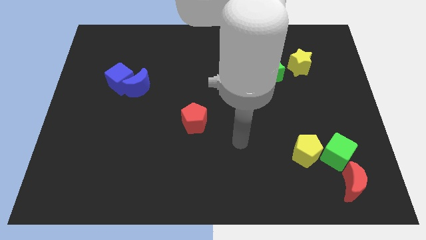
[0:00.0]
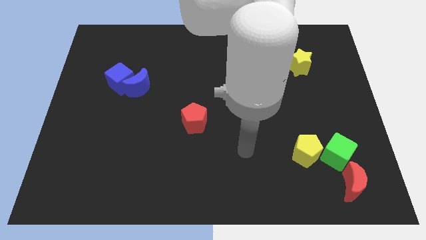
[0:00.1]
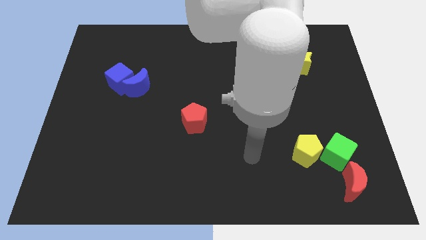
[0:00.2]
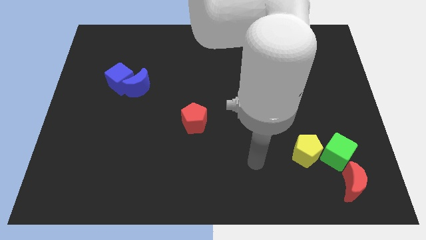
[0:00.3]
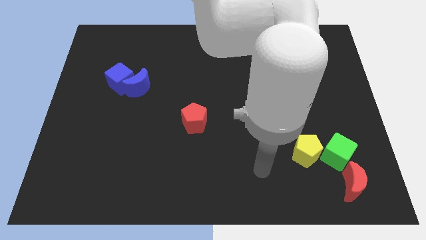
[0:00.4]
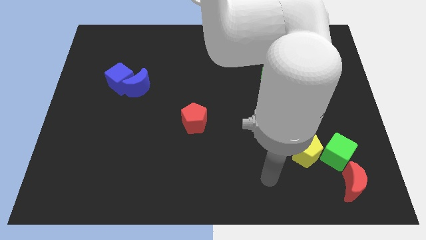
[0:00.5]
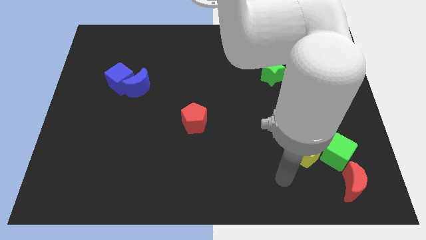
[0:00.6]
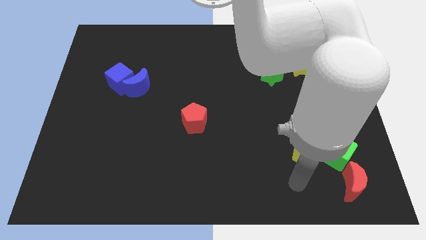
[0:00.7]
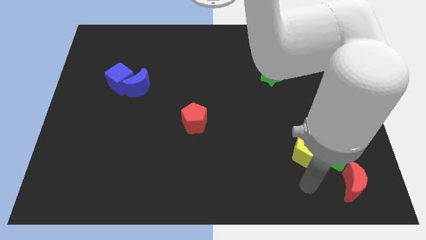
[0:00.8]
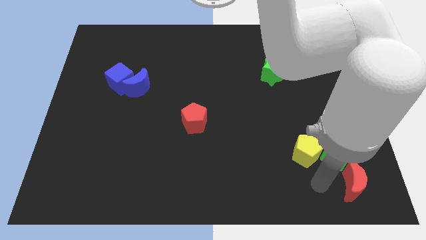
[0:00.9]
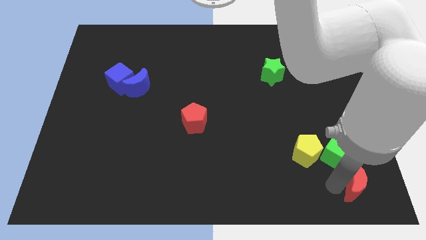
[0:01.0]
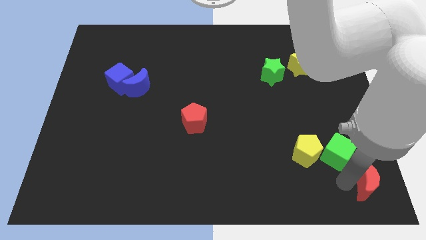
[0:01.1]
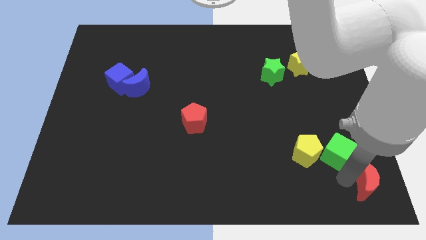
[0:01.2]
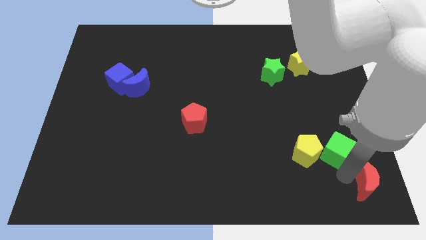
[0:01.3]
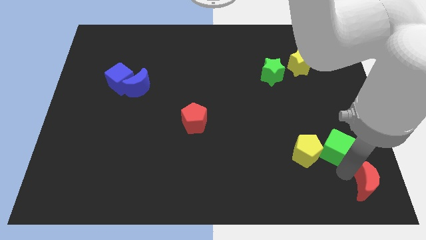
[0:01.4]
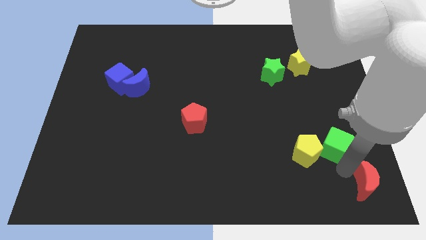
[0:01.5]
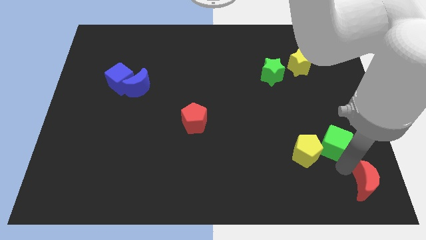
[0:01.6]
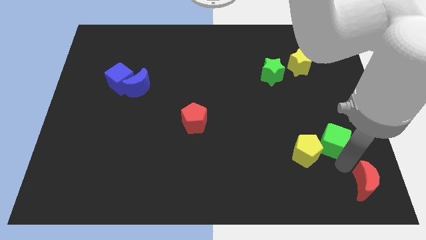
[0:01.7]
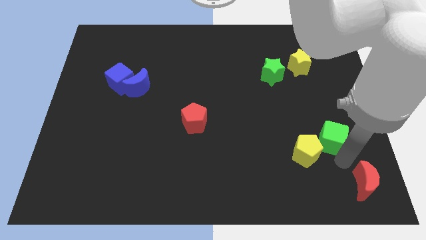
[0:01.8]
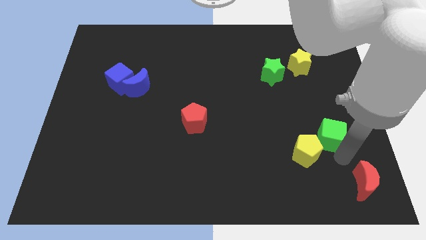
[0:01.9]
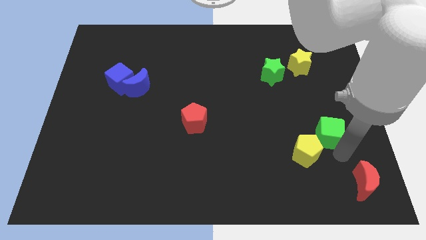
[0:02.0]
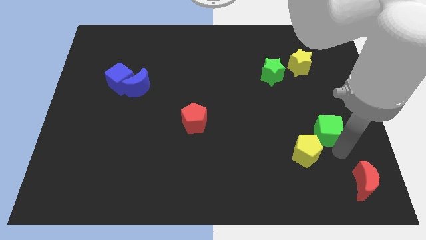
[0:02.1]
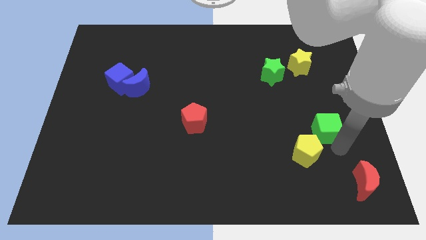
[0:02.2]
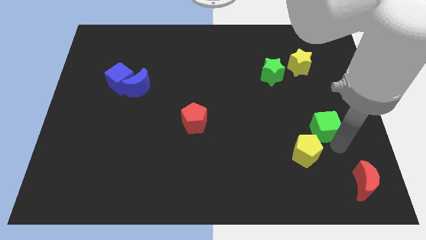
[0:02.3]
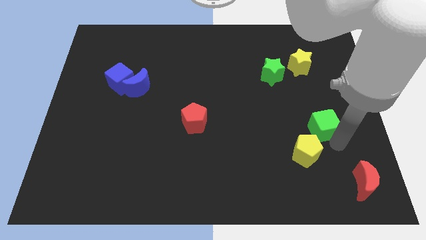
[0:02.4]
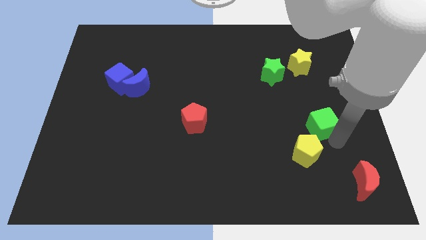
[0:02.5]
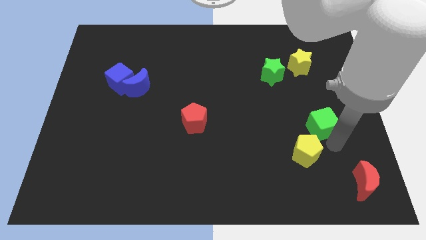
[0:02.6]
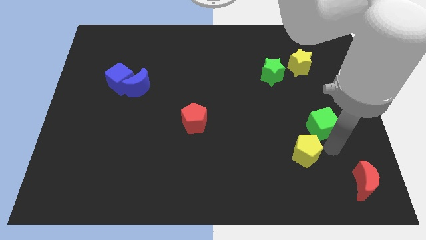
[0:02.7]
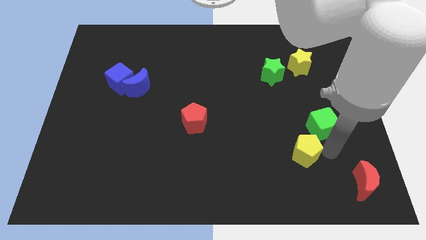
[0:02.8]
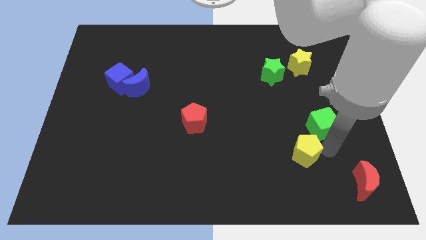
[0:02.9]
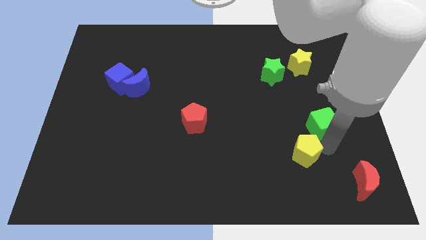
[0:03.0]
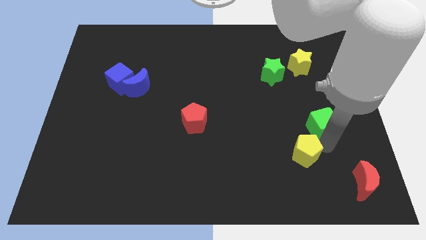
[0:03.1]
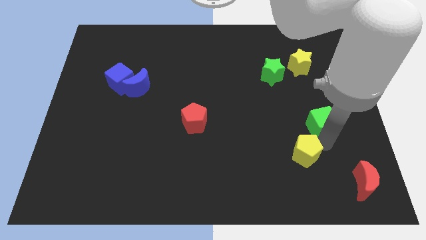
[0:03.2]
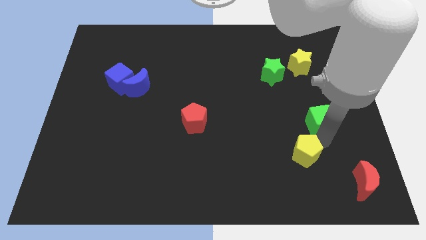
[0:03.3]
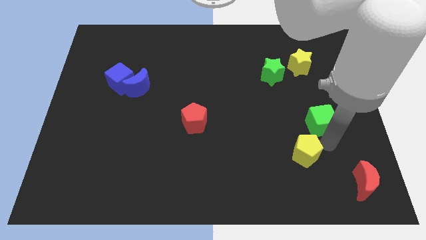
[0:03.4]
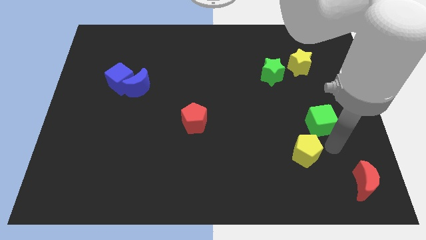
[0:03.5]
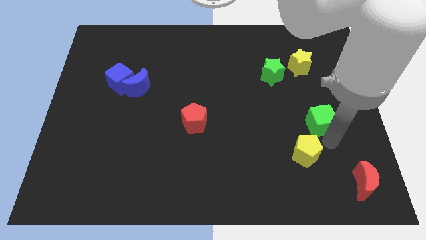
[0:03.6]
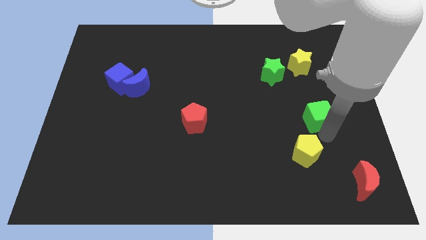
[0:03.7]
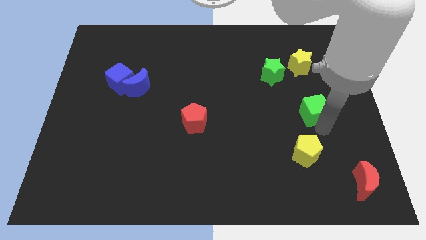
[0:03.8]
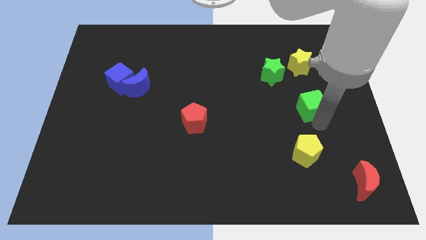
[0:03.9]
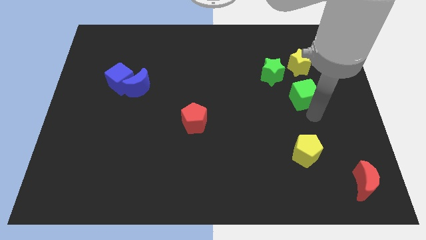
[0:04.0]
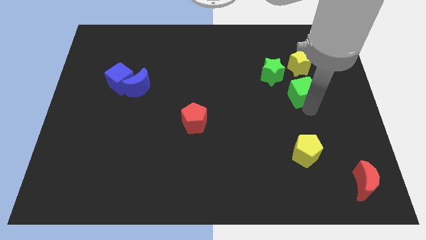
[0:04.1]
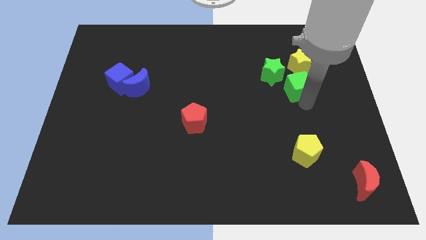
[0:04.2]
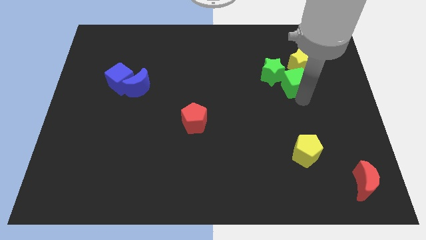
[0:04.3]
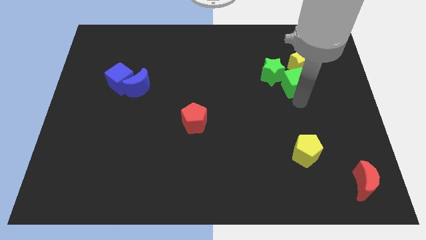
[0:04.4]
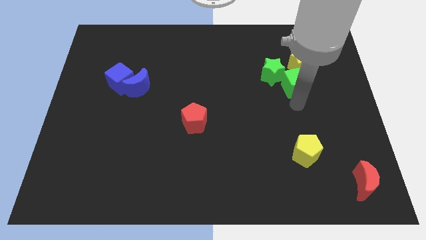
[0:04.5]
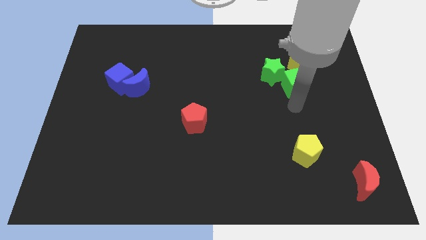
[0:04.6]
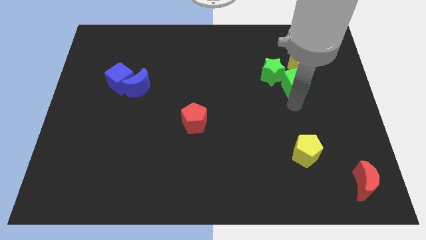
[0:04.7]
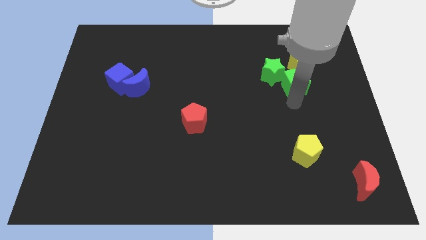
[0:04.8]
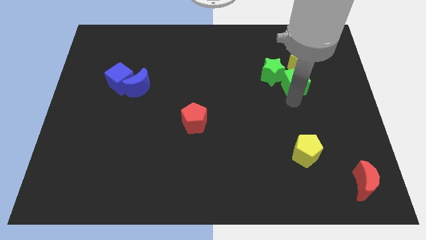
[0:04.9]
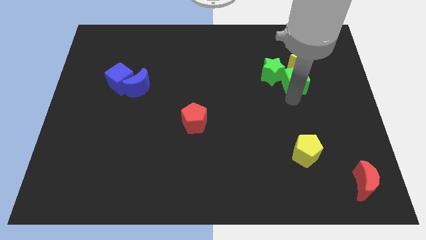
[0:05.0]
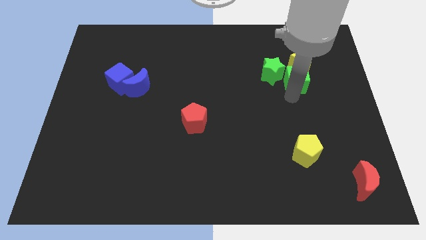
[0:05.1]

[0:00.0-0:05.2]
slide the green cube next to the yellow star

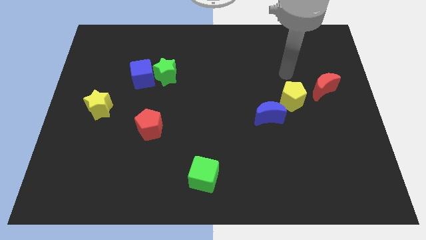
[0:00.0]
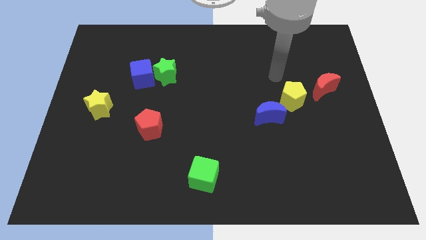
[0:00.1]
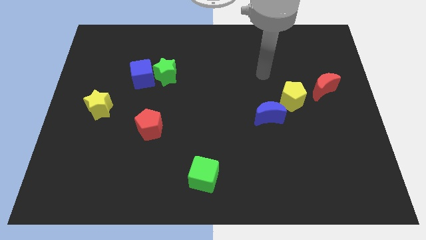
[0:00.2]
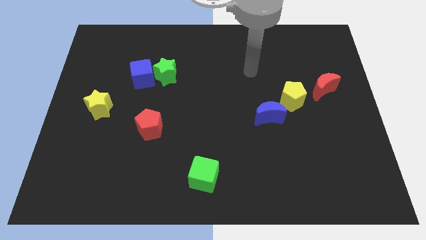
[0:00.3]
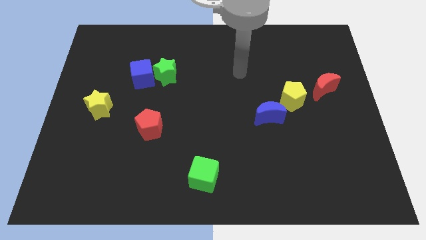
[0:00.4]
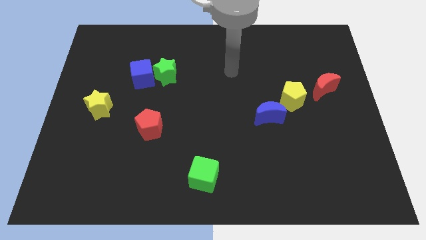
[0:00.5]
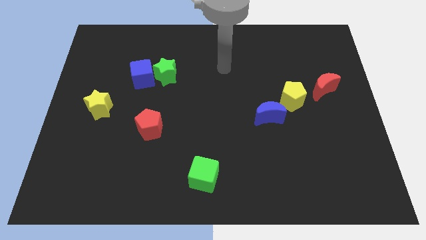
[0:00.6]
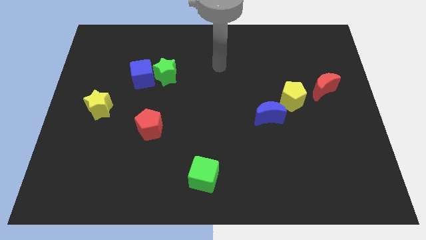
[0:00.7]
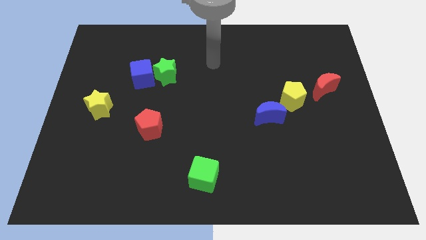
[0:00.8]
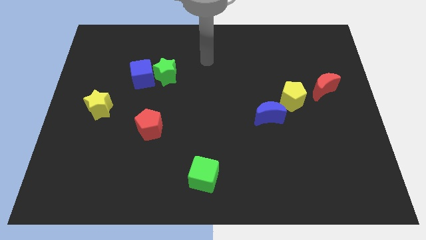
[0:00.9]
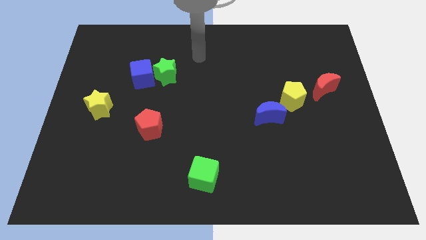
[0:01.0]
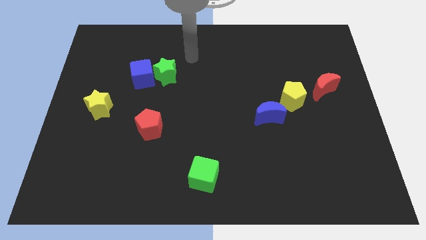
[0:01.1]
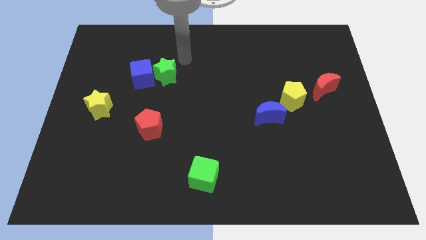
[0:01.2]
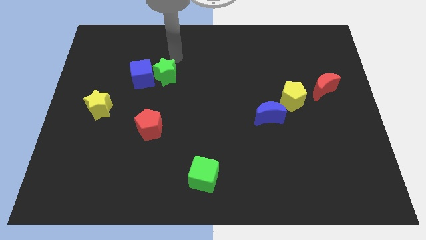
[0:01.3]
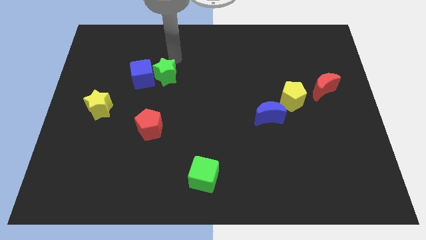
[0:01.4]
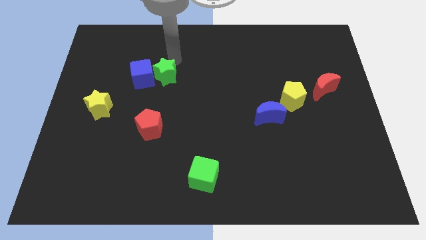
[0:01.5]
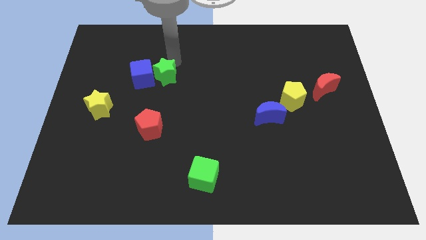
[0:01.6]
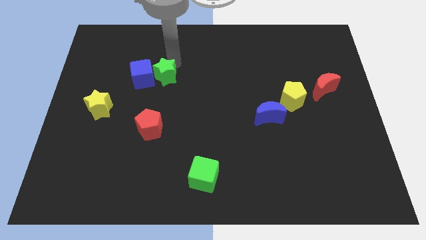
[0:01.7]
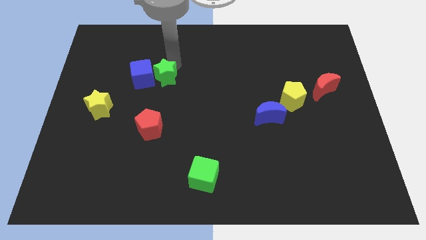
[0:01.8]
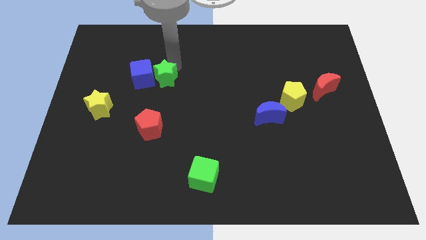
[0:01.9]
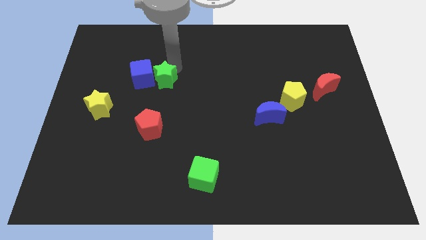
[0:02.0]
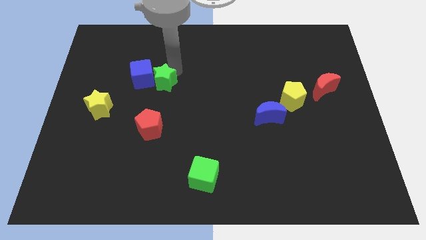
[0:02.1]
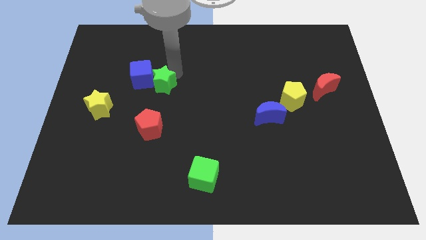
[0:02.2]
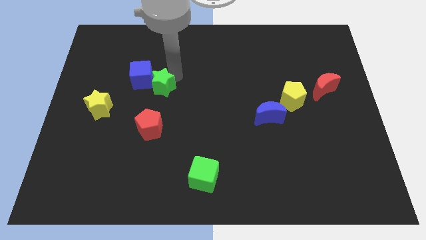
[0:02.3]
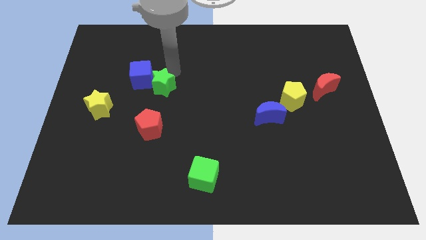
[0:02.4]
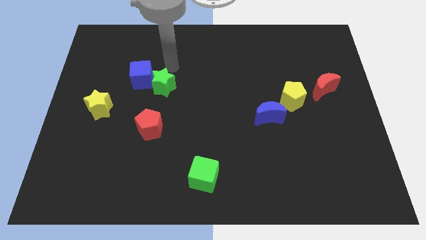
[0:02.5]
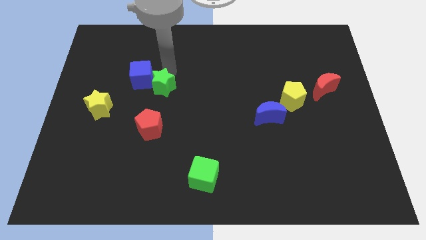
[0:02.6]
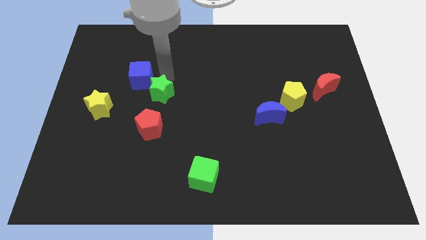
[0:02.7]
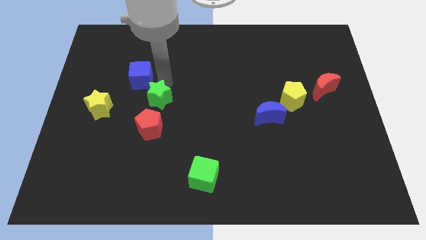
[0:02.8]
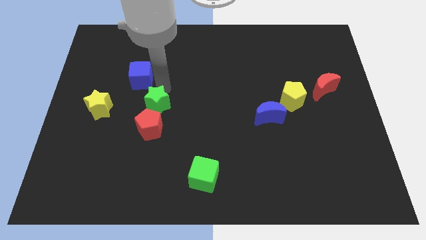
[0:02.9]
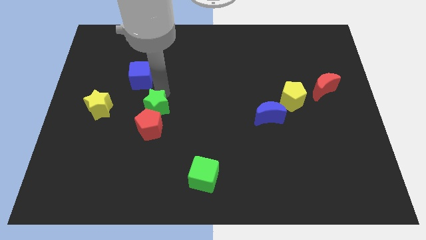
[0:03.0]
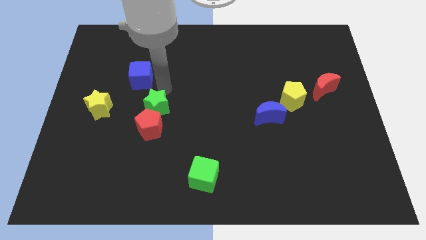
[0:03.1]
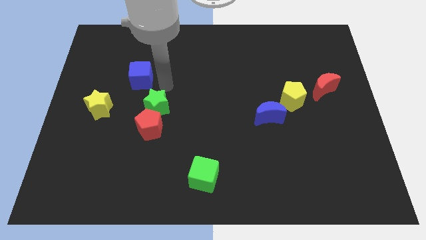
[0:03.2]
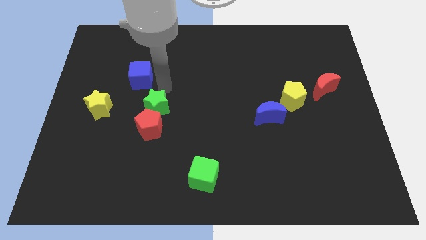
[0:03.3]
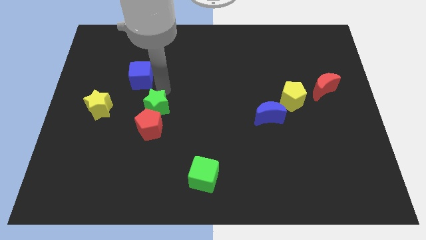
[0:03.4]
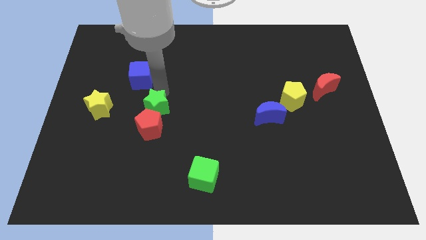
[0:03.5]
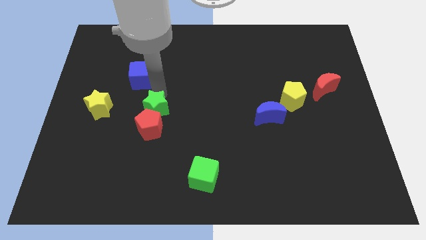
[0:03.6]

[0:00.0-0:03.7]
put the green star towards the red pentagon
